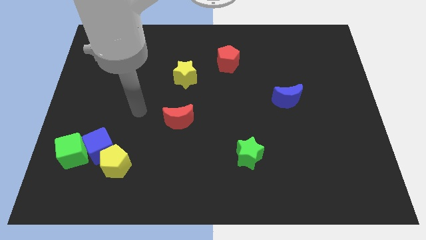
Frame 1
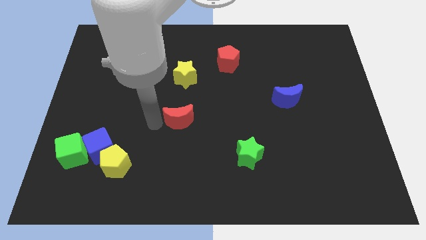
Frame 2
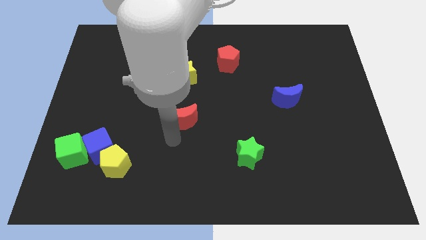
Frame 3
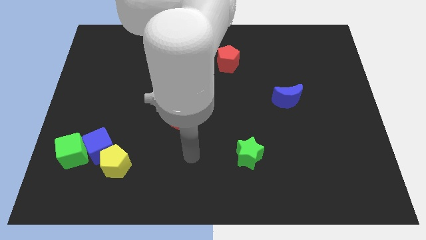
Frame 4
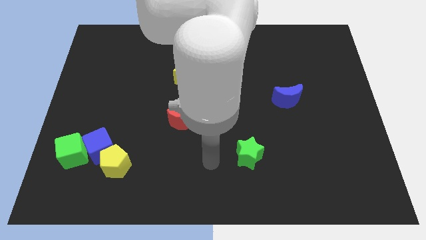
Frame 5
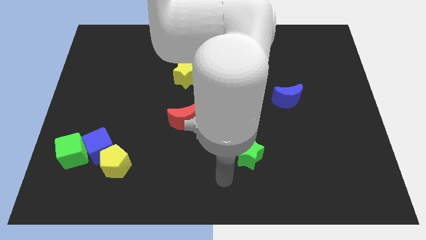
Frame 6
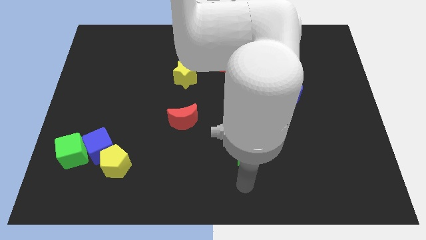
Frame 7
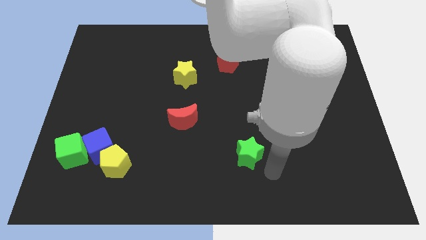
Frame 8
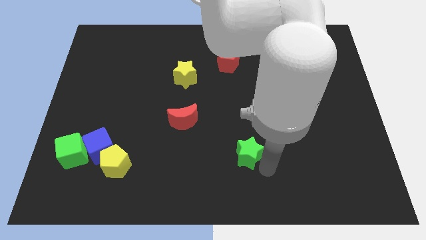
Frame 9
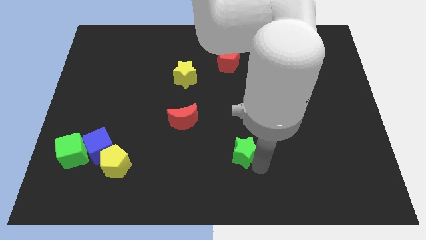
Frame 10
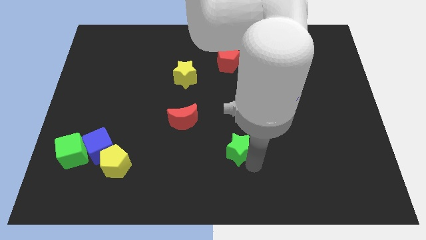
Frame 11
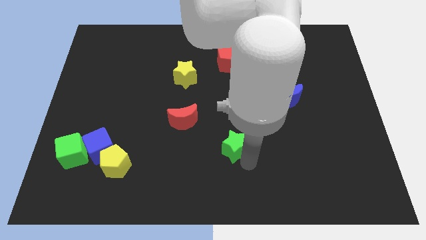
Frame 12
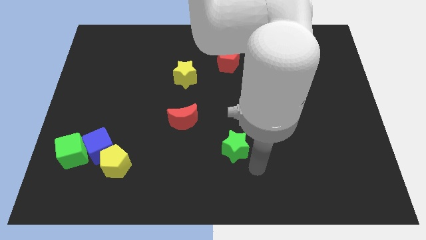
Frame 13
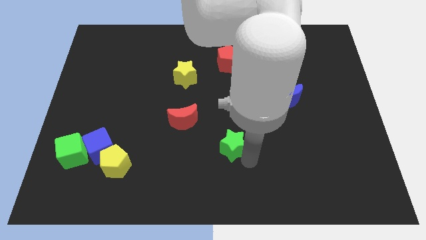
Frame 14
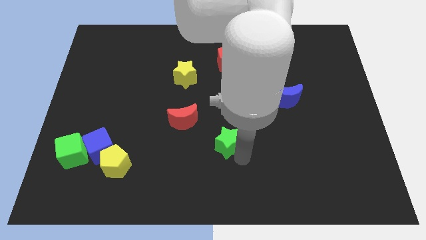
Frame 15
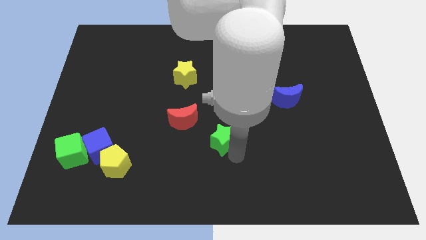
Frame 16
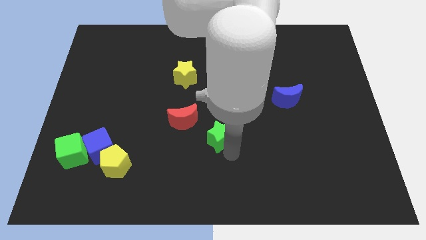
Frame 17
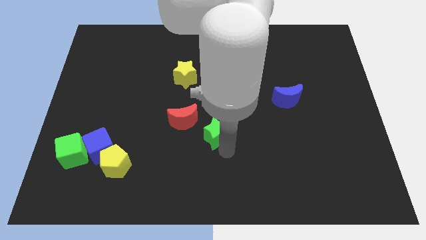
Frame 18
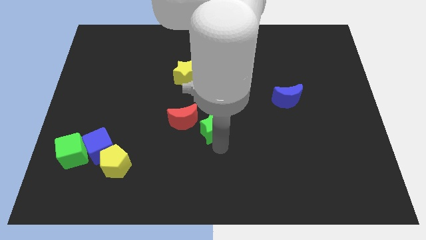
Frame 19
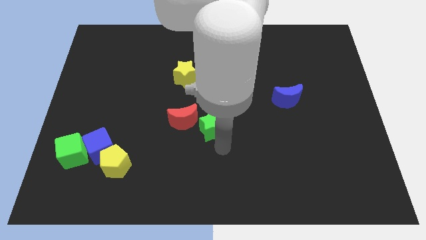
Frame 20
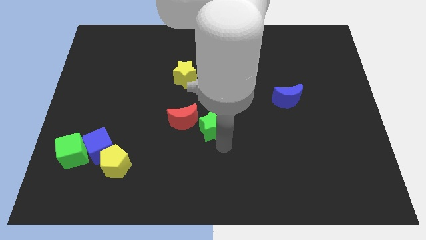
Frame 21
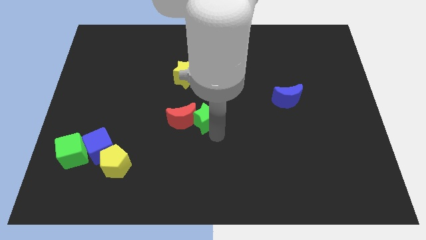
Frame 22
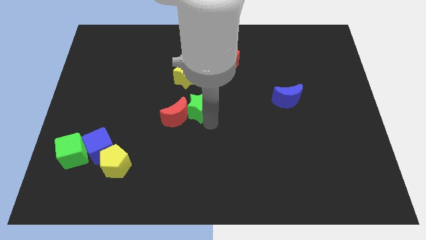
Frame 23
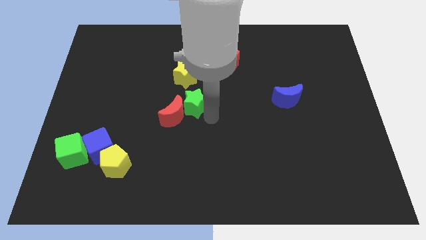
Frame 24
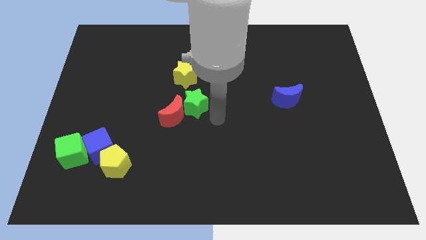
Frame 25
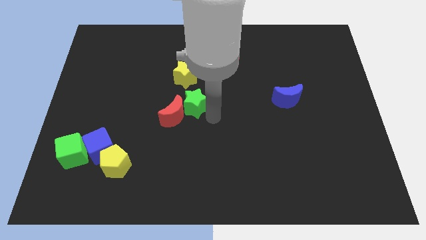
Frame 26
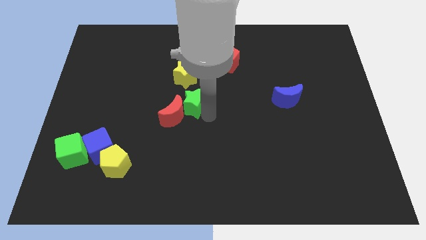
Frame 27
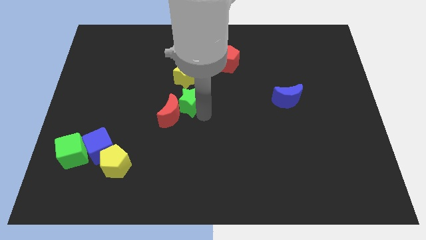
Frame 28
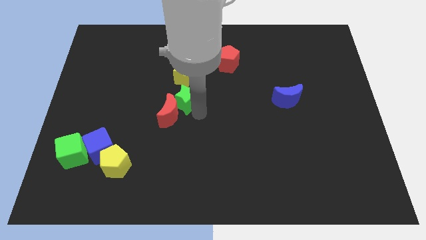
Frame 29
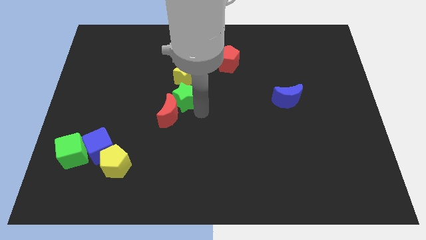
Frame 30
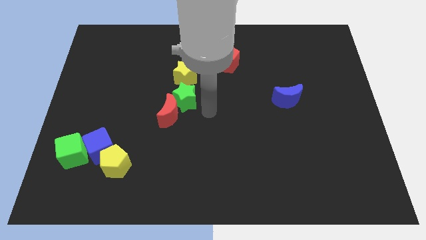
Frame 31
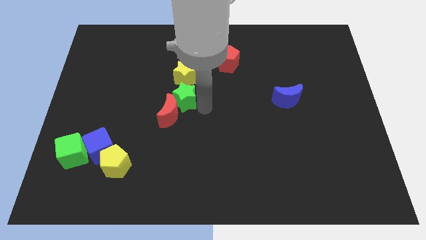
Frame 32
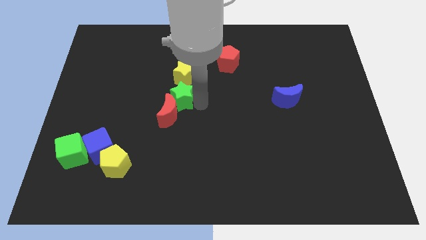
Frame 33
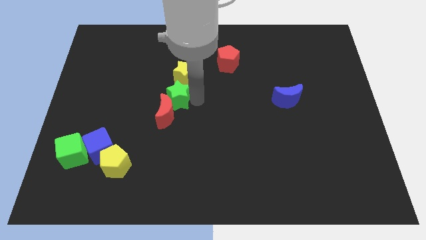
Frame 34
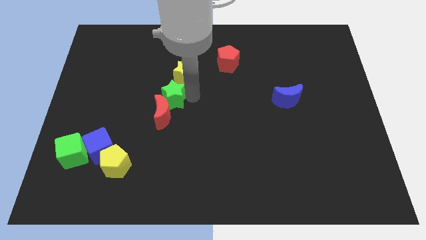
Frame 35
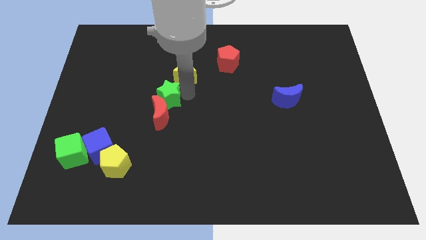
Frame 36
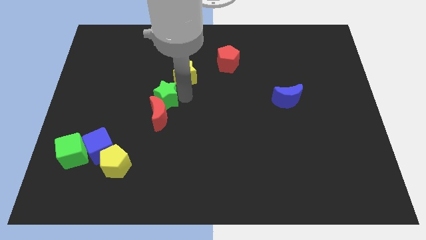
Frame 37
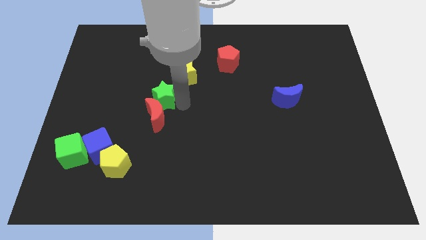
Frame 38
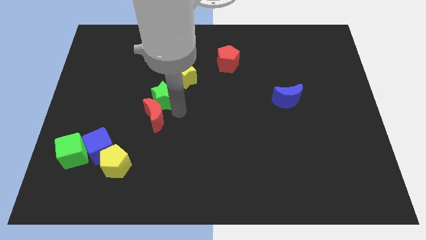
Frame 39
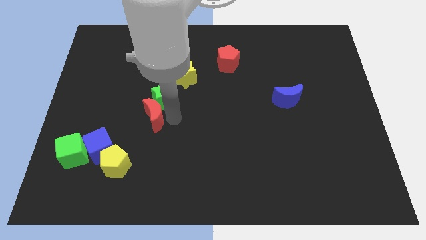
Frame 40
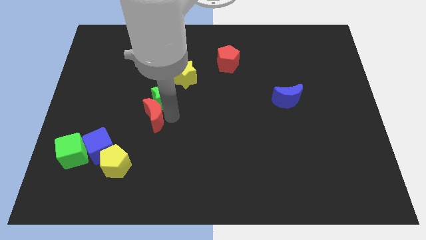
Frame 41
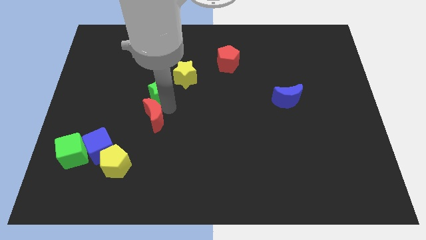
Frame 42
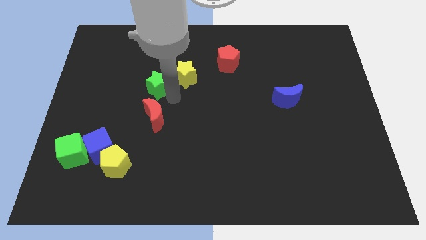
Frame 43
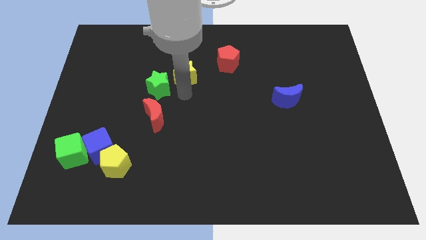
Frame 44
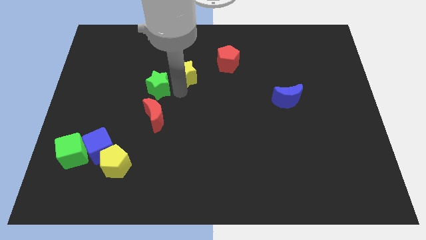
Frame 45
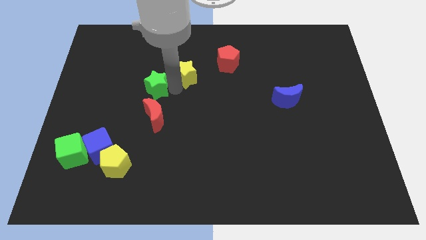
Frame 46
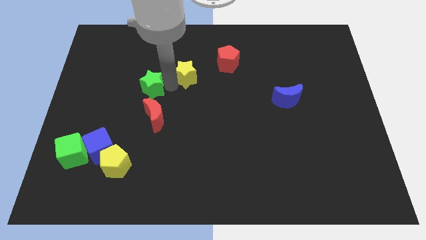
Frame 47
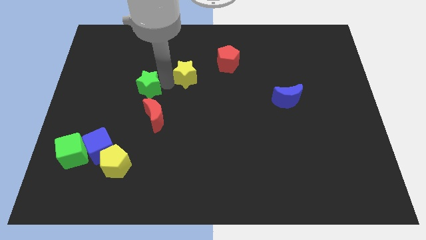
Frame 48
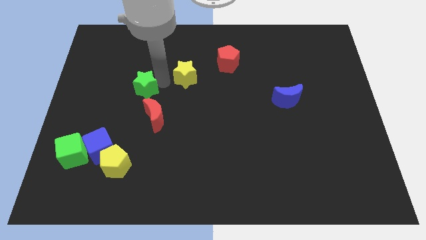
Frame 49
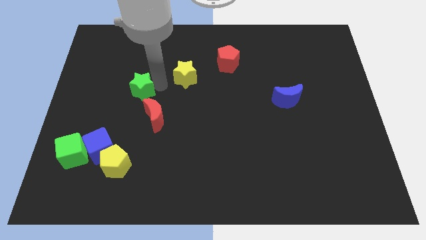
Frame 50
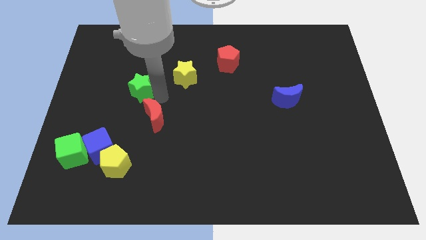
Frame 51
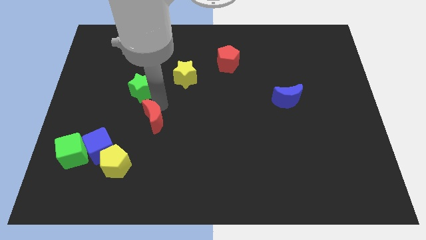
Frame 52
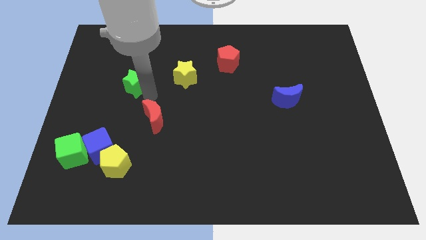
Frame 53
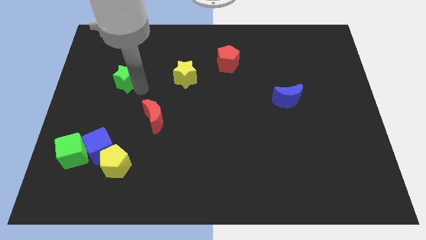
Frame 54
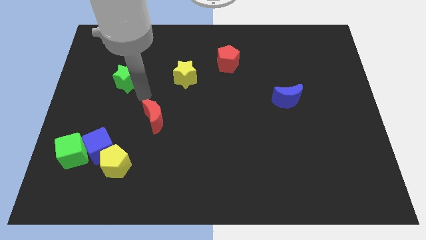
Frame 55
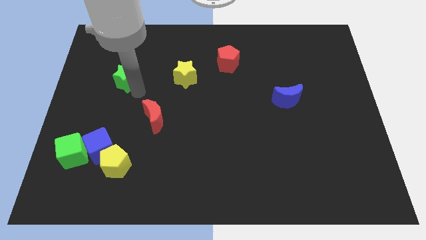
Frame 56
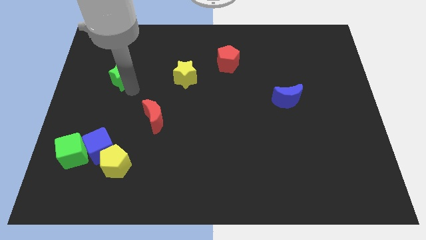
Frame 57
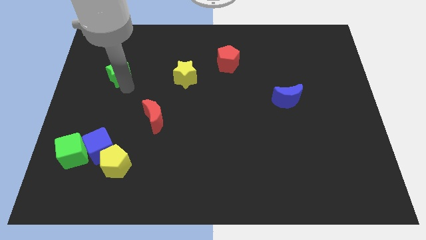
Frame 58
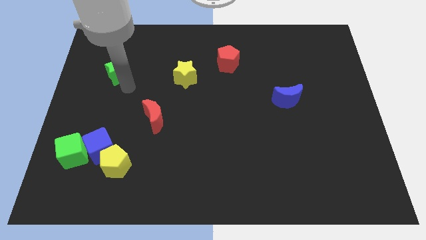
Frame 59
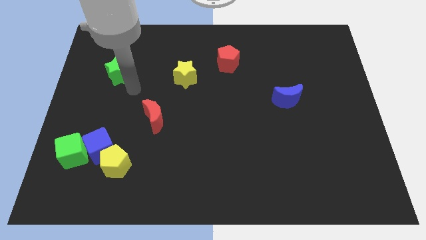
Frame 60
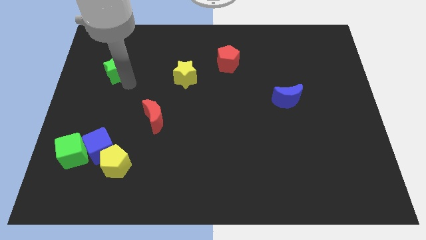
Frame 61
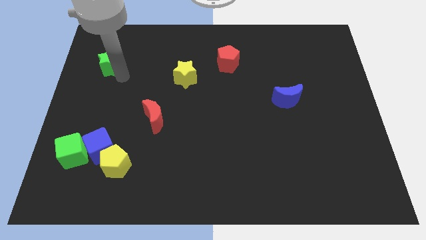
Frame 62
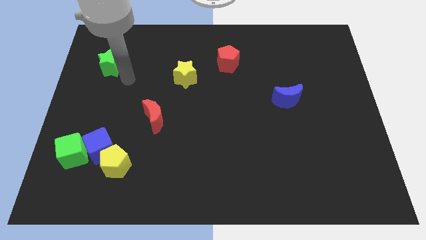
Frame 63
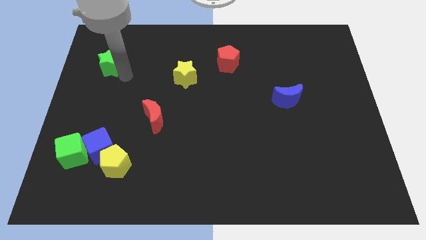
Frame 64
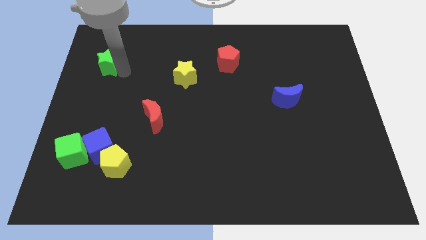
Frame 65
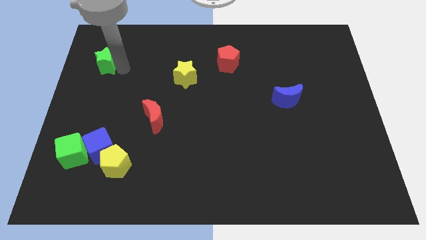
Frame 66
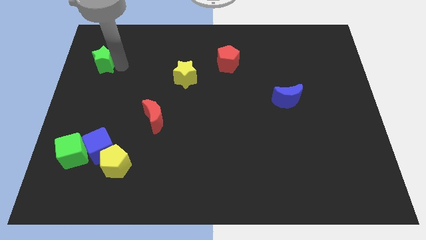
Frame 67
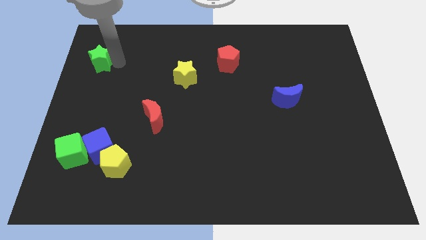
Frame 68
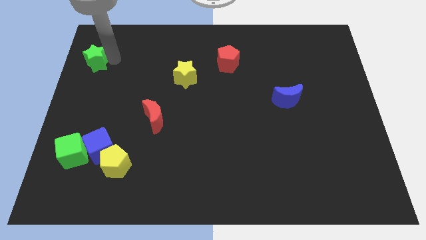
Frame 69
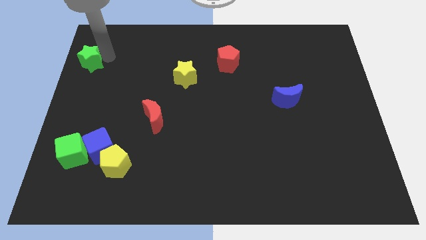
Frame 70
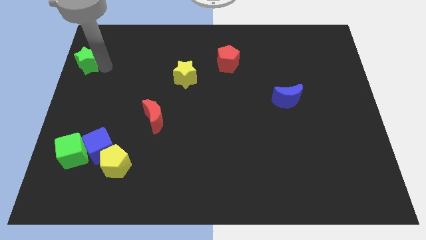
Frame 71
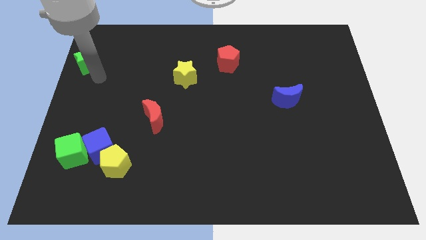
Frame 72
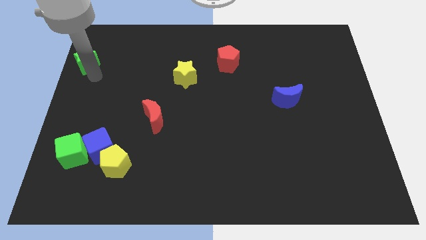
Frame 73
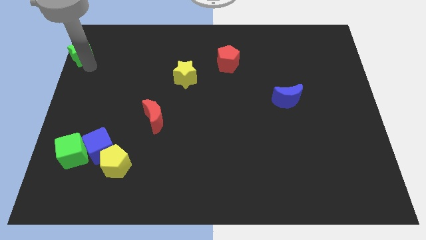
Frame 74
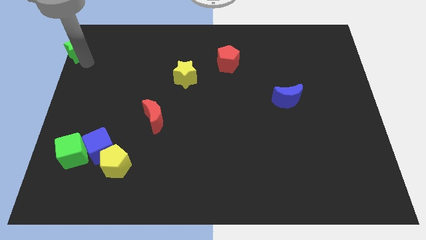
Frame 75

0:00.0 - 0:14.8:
move the green star to the top left of the board
